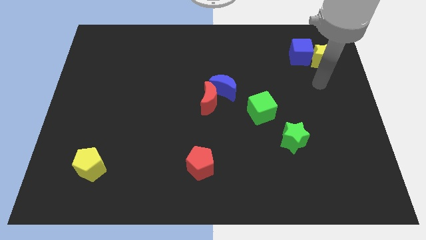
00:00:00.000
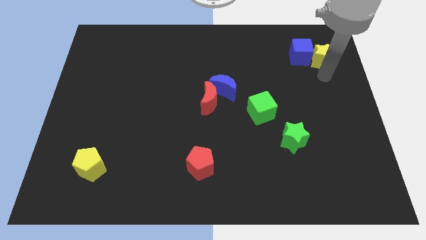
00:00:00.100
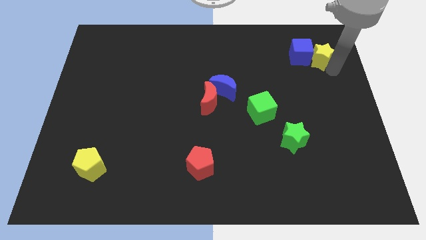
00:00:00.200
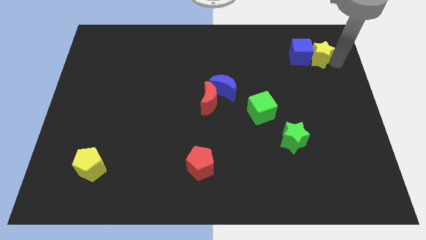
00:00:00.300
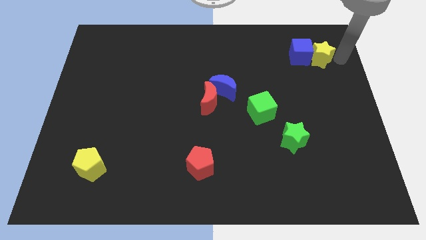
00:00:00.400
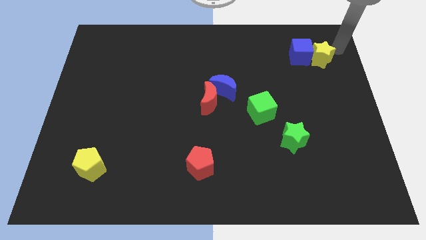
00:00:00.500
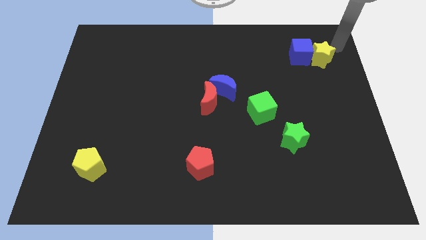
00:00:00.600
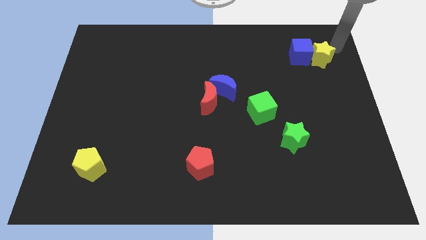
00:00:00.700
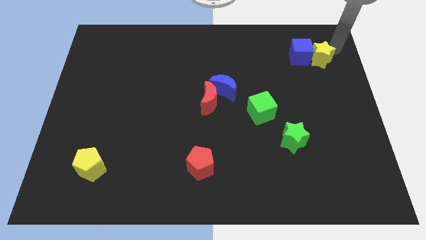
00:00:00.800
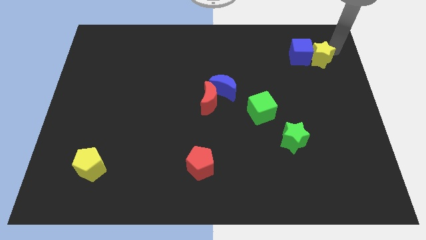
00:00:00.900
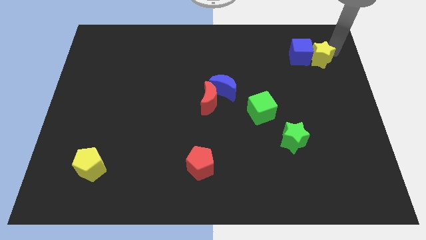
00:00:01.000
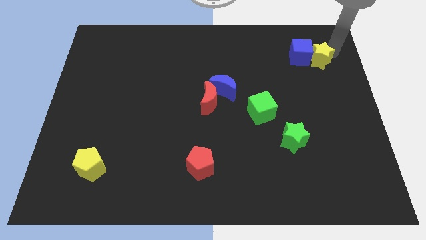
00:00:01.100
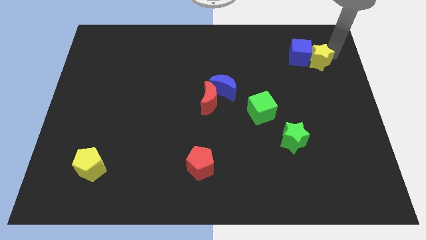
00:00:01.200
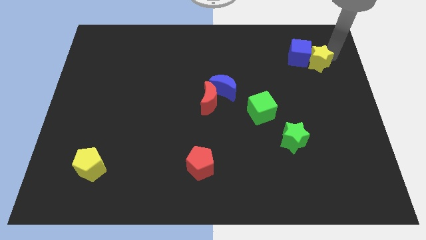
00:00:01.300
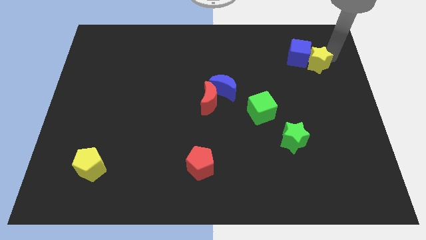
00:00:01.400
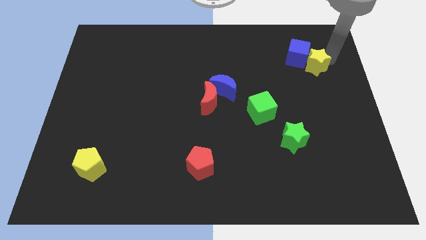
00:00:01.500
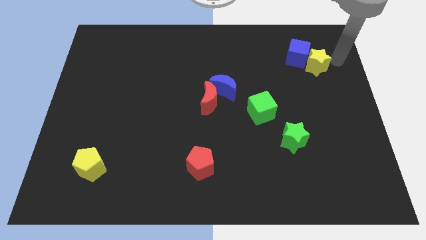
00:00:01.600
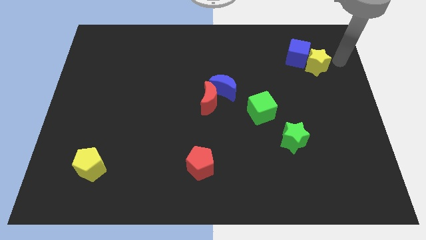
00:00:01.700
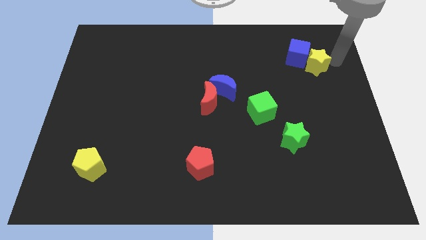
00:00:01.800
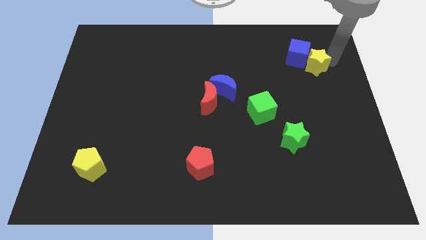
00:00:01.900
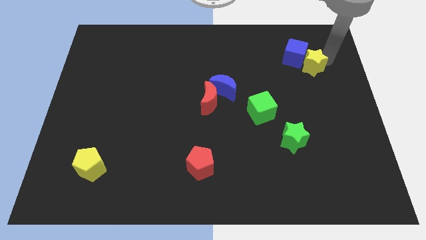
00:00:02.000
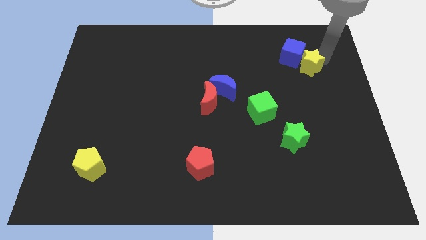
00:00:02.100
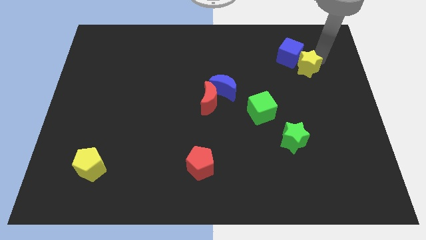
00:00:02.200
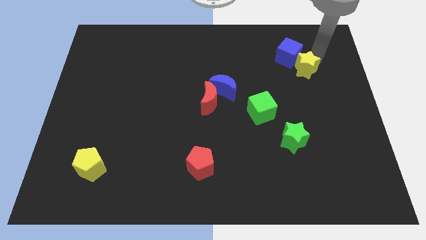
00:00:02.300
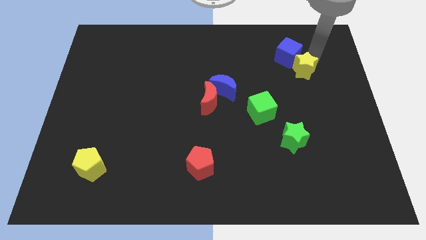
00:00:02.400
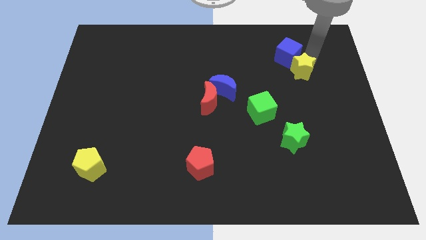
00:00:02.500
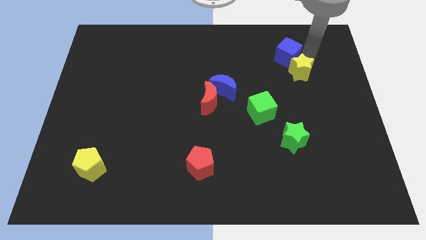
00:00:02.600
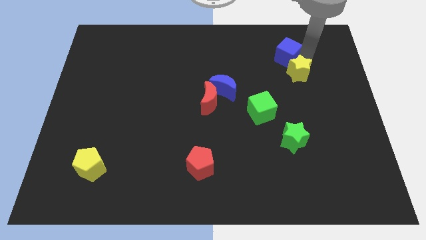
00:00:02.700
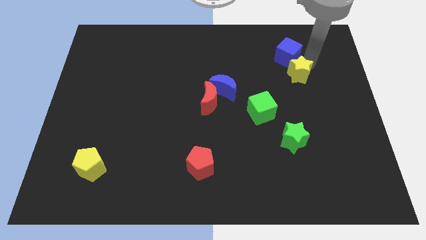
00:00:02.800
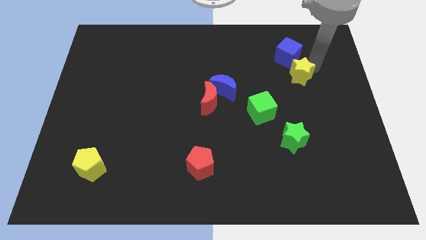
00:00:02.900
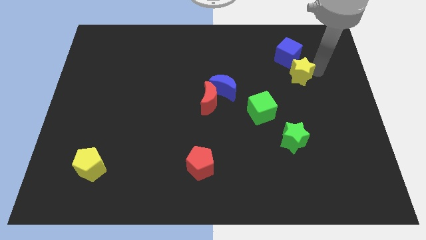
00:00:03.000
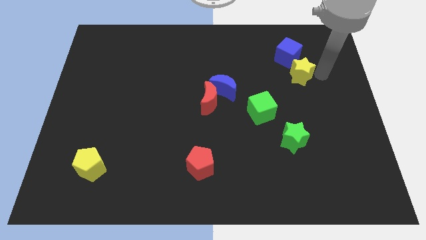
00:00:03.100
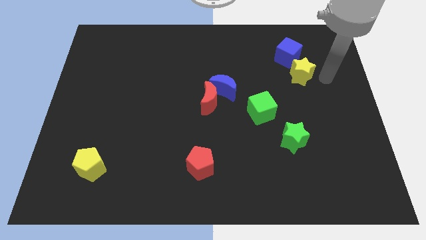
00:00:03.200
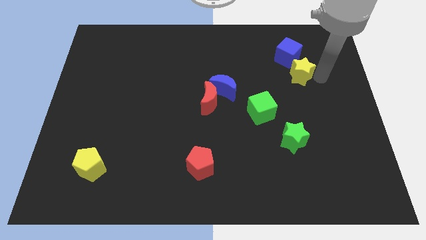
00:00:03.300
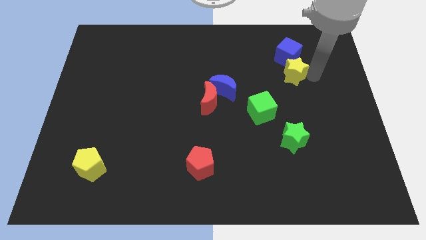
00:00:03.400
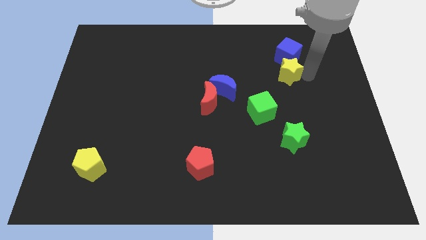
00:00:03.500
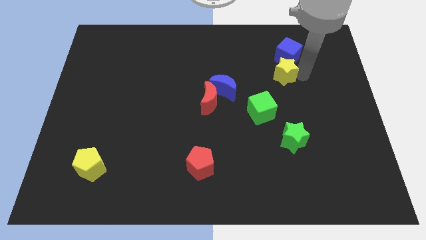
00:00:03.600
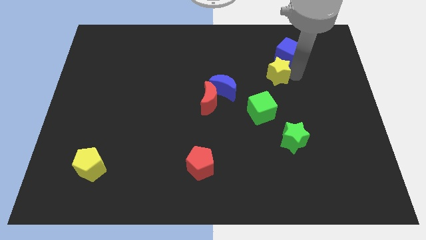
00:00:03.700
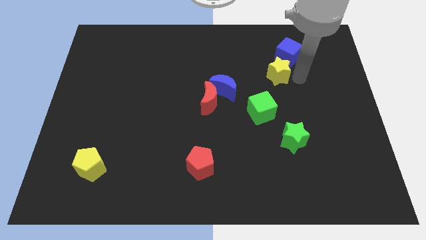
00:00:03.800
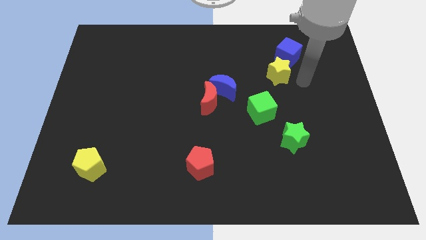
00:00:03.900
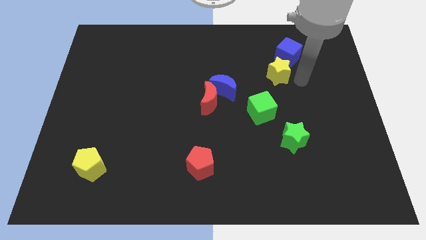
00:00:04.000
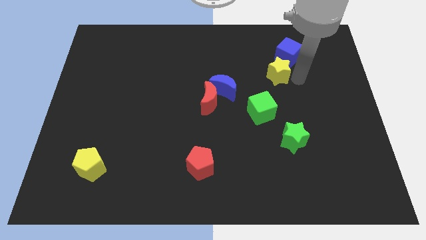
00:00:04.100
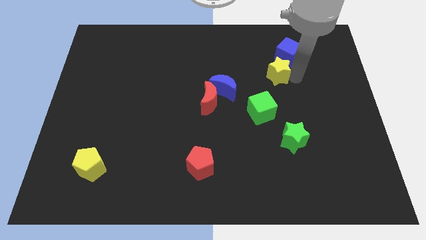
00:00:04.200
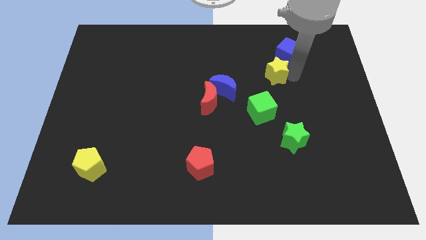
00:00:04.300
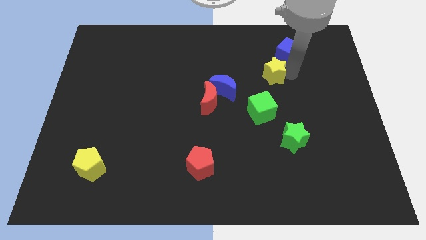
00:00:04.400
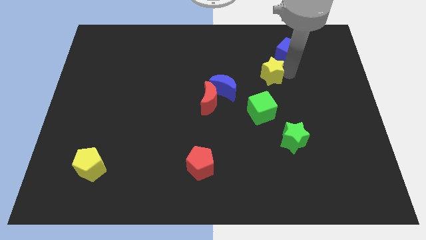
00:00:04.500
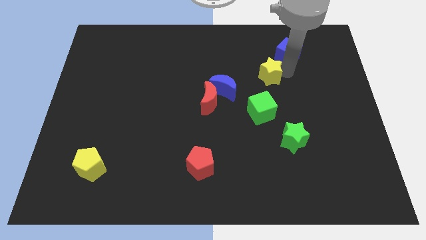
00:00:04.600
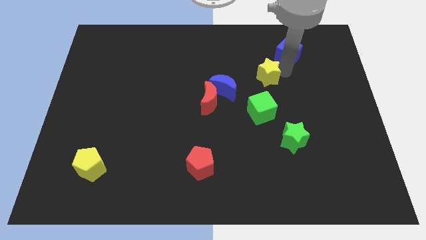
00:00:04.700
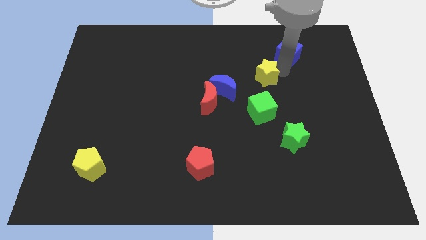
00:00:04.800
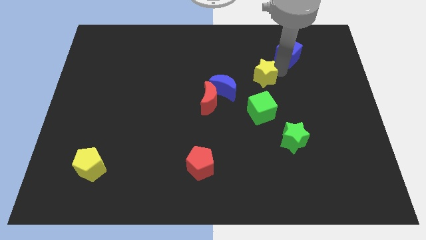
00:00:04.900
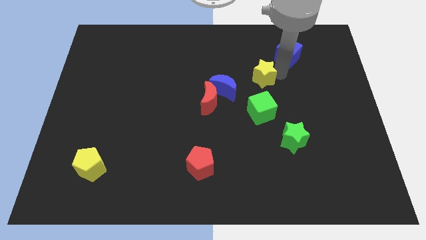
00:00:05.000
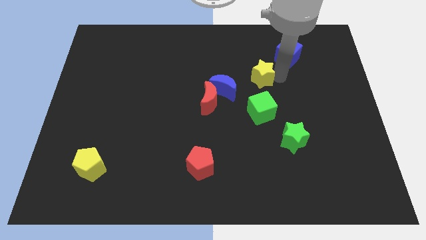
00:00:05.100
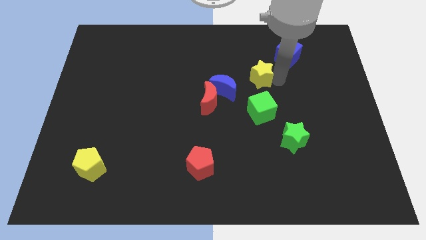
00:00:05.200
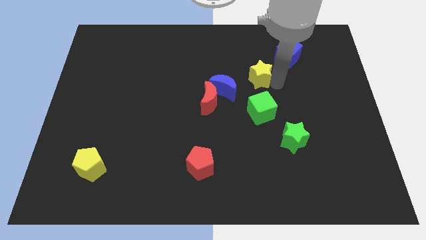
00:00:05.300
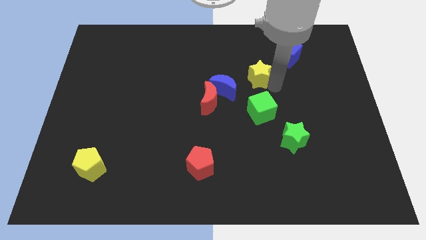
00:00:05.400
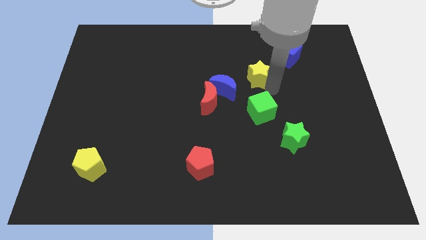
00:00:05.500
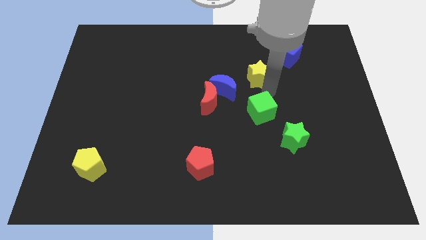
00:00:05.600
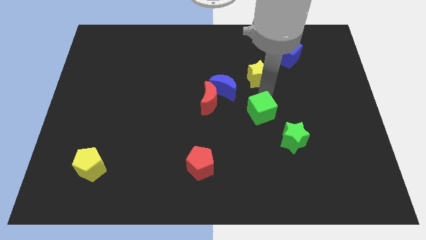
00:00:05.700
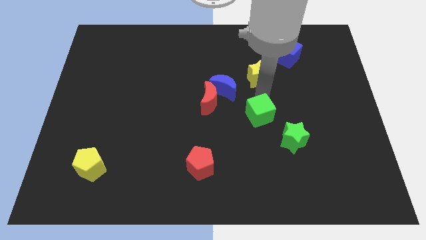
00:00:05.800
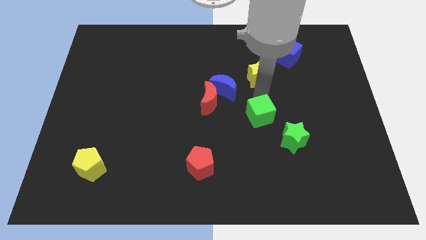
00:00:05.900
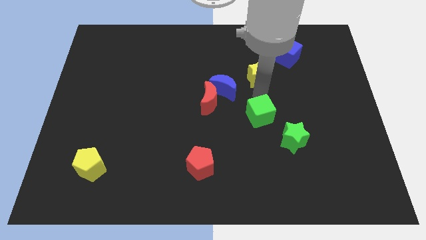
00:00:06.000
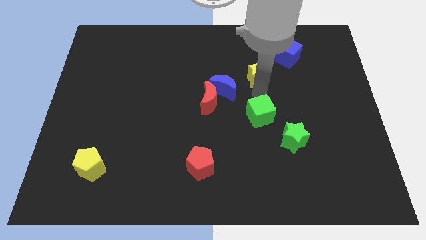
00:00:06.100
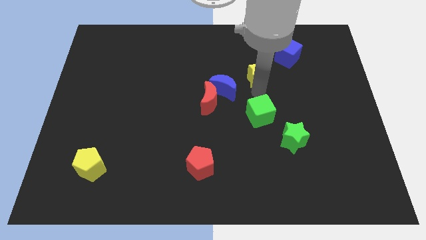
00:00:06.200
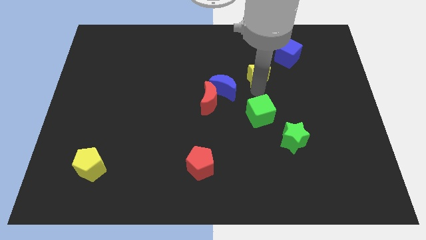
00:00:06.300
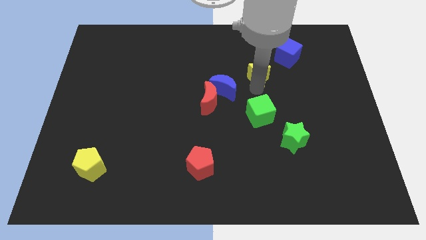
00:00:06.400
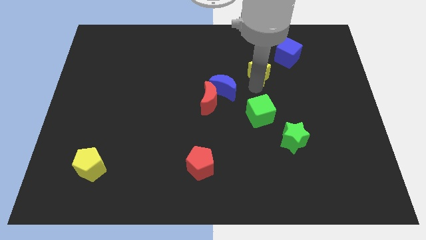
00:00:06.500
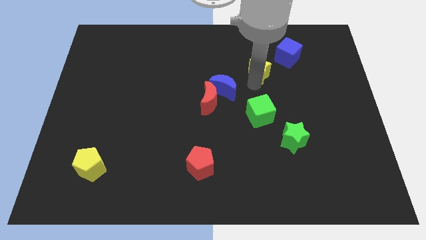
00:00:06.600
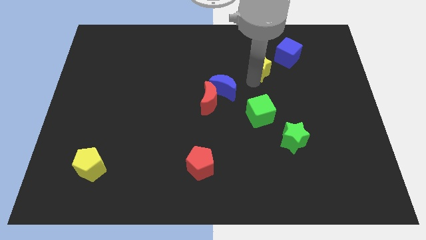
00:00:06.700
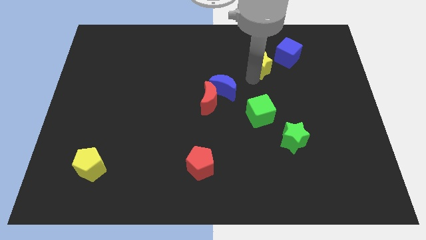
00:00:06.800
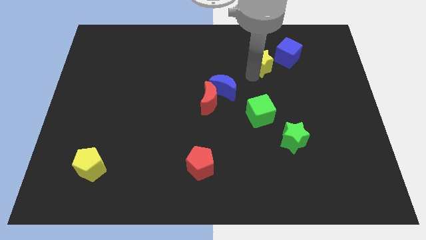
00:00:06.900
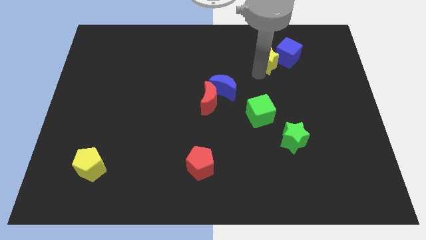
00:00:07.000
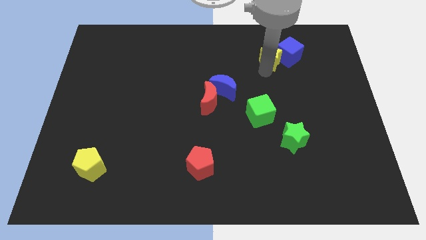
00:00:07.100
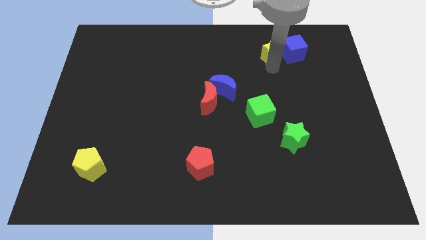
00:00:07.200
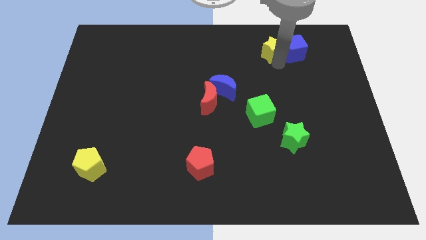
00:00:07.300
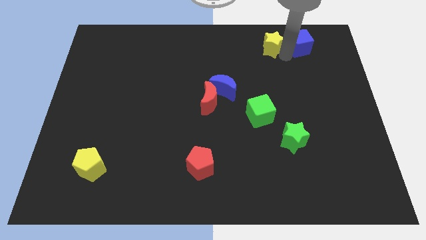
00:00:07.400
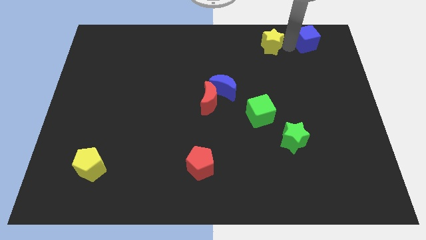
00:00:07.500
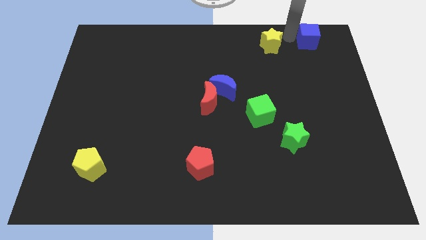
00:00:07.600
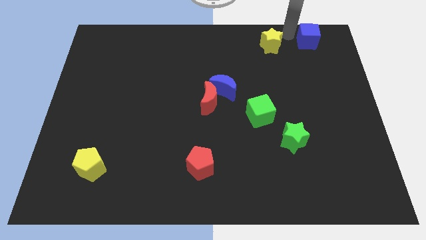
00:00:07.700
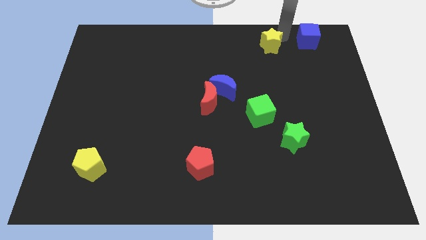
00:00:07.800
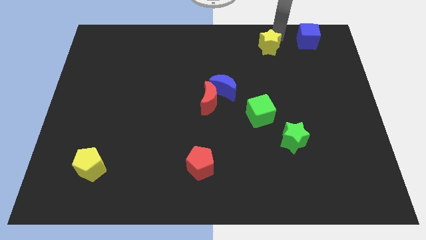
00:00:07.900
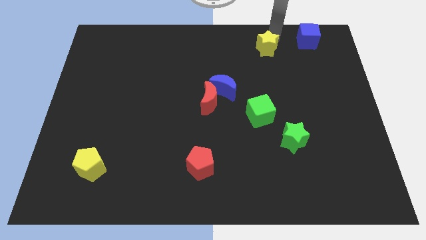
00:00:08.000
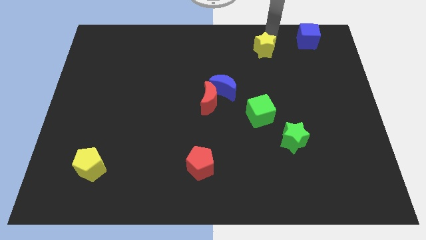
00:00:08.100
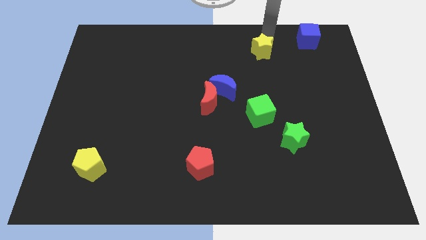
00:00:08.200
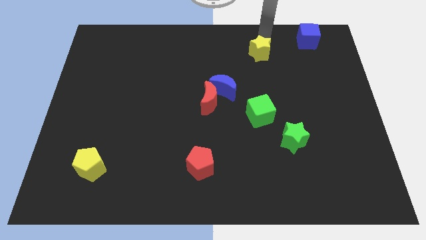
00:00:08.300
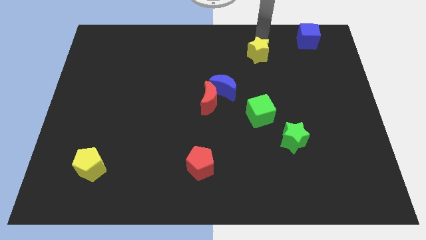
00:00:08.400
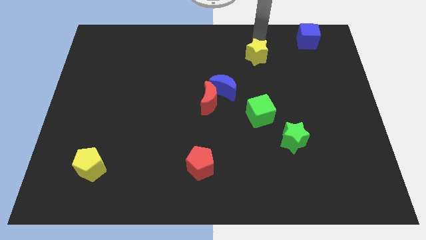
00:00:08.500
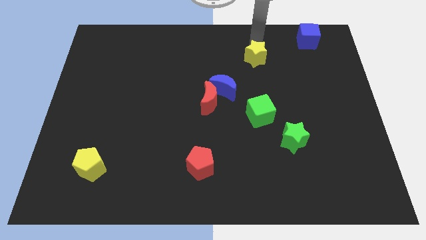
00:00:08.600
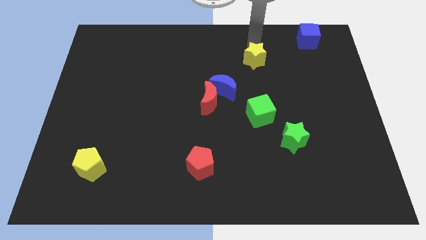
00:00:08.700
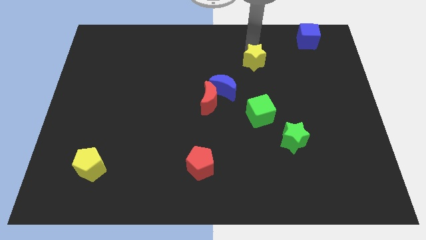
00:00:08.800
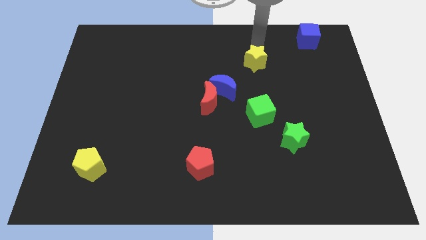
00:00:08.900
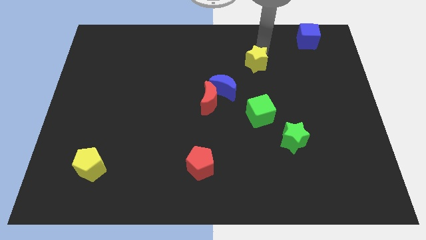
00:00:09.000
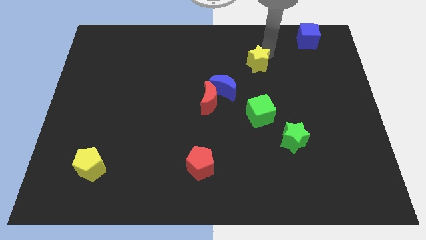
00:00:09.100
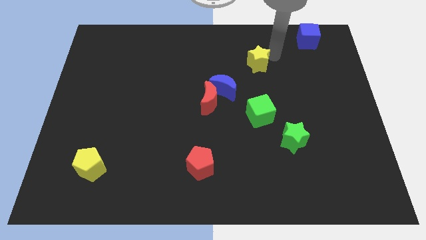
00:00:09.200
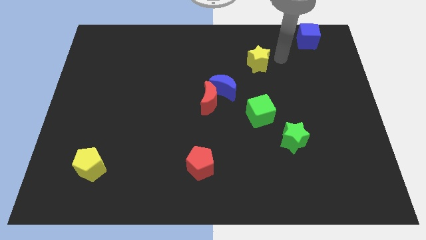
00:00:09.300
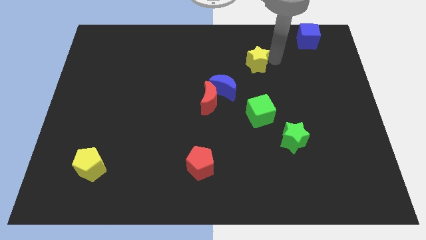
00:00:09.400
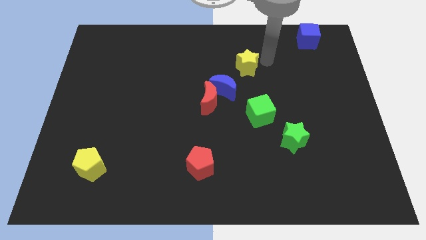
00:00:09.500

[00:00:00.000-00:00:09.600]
slide the yellow star left
